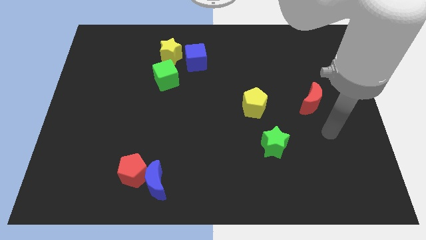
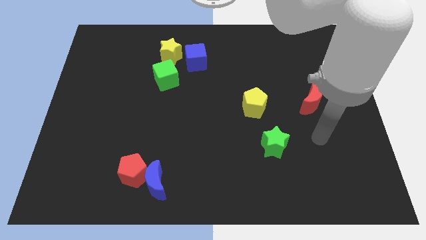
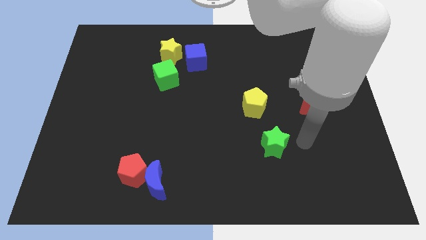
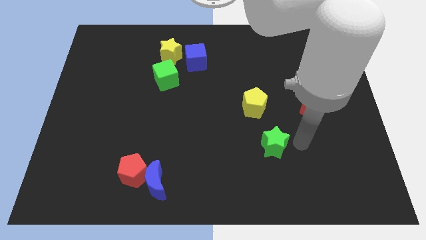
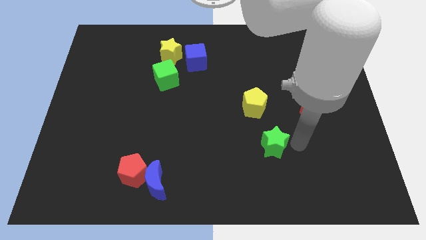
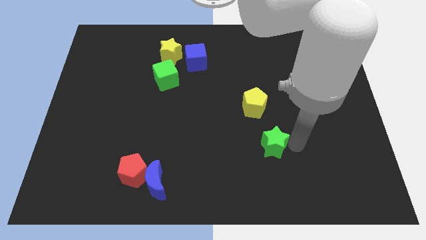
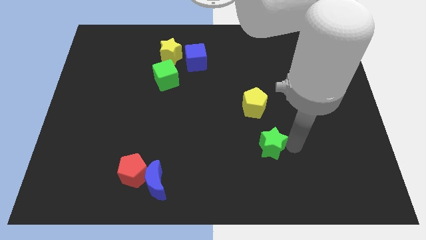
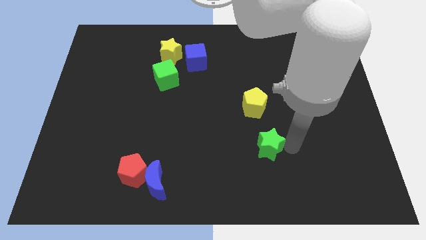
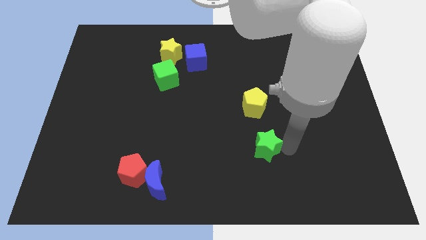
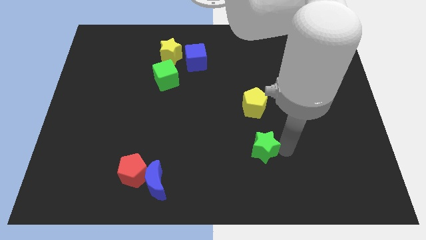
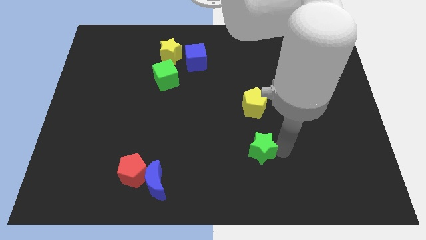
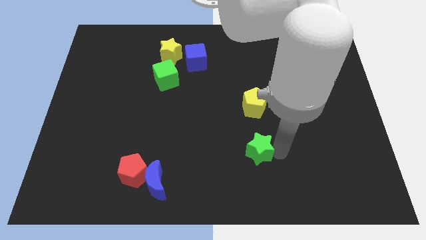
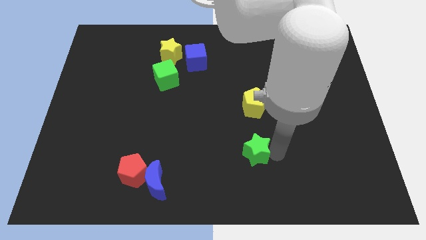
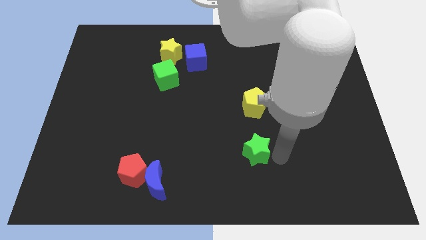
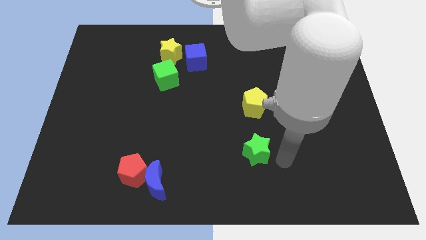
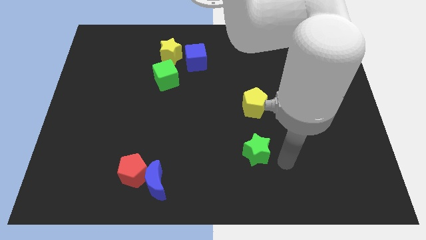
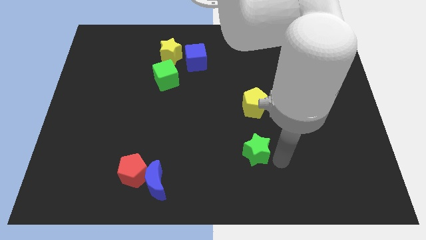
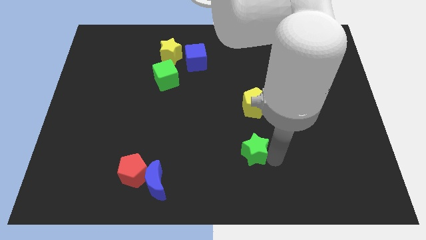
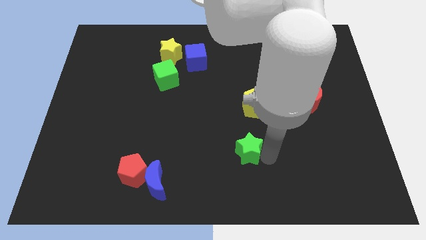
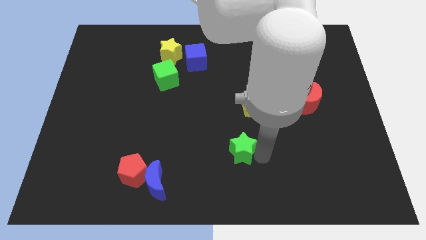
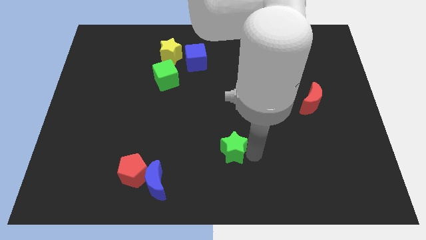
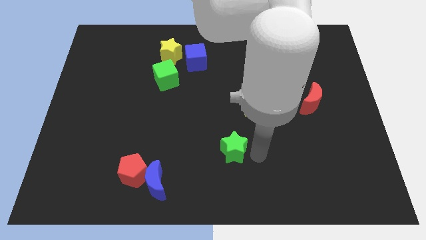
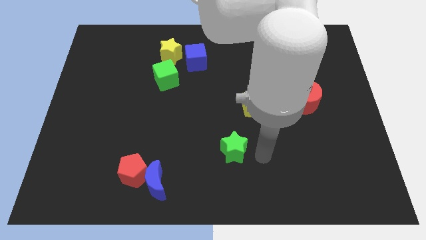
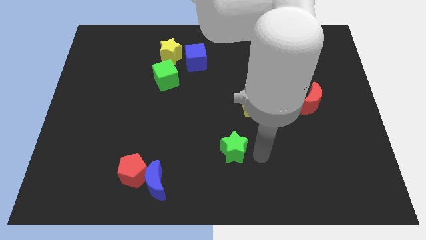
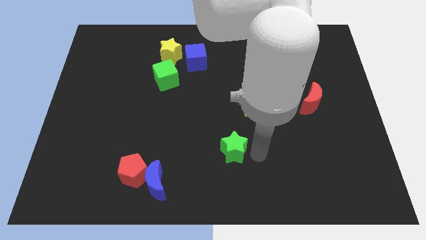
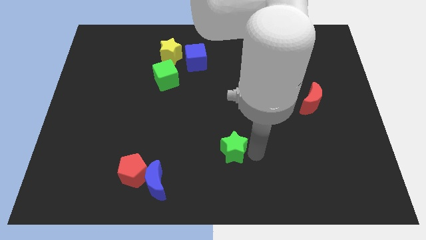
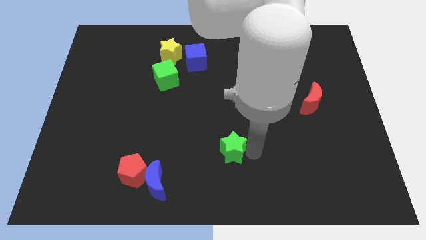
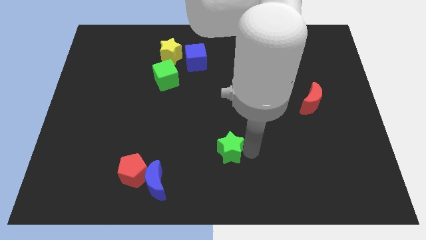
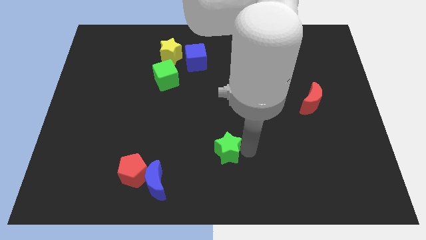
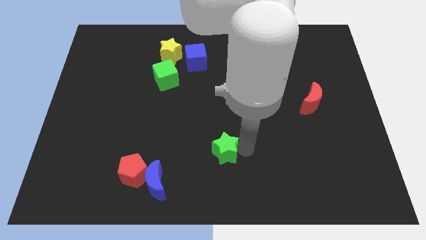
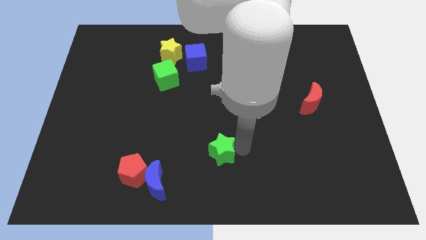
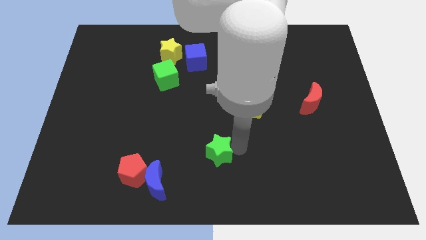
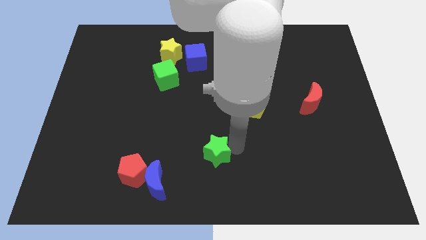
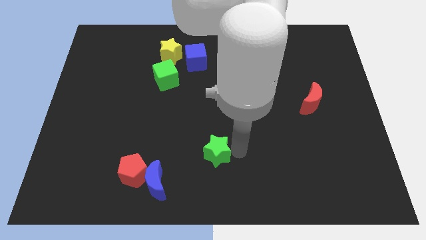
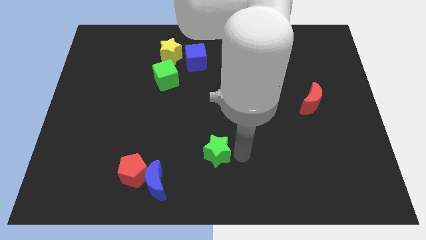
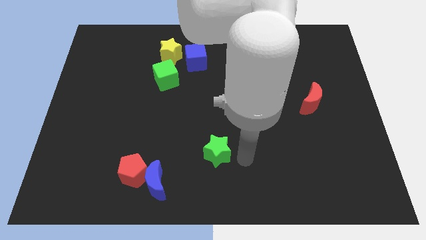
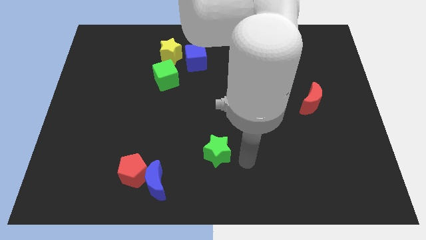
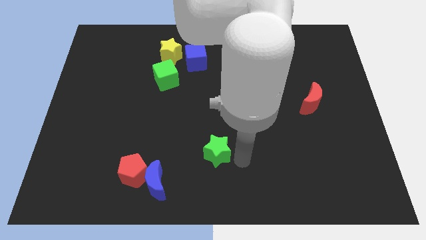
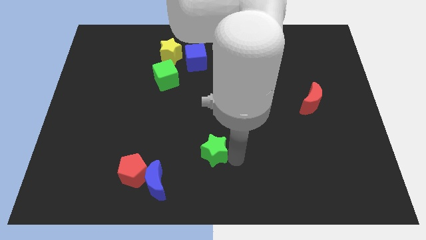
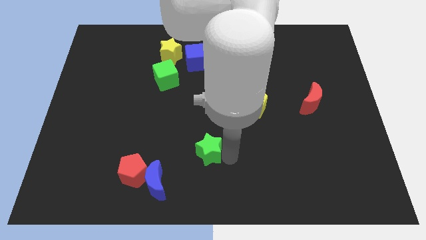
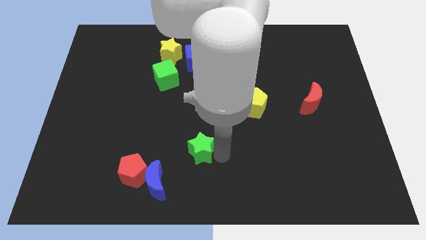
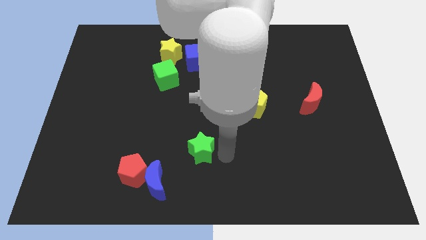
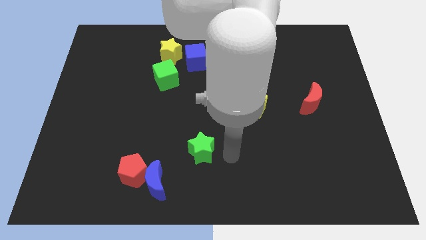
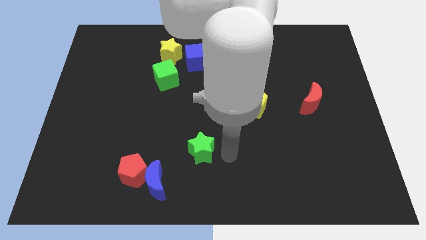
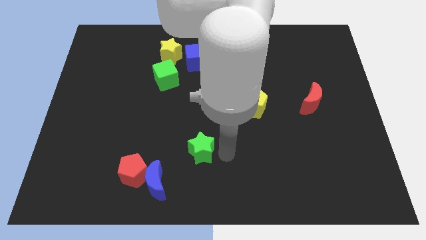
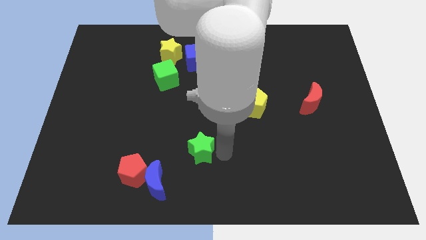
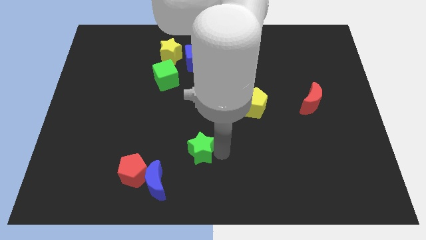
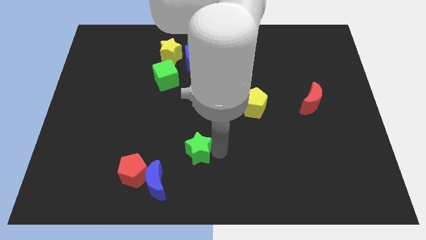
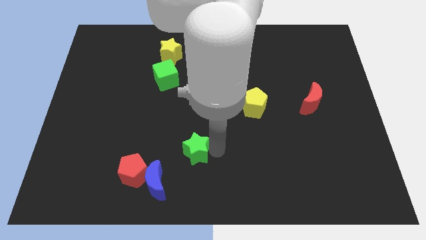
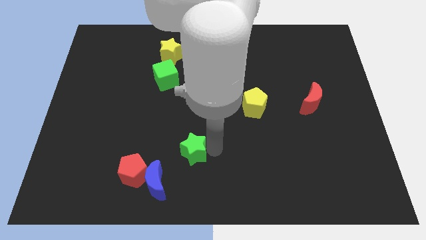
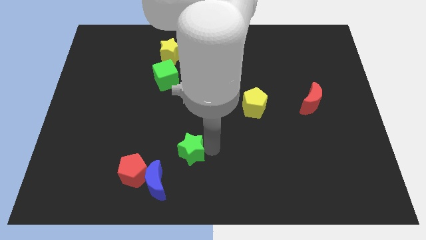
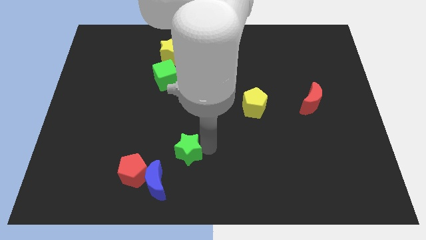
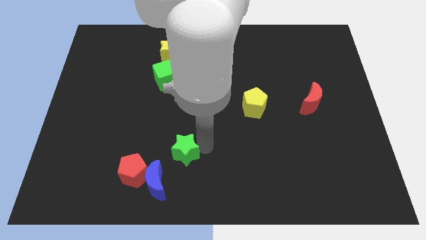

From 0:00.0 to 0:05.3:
move the green star to the top right of the red pentagon

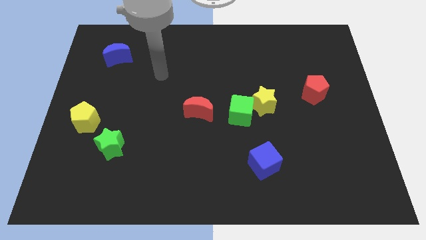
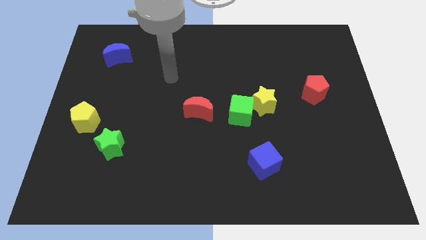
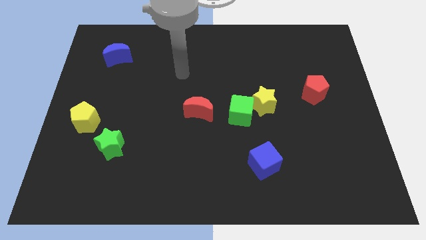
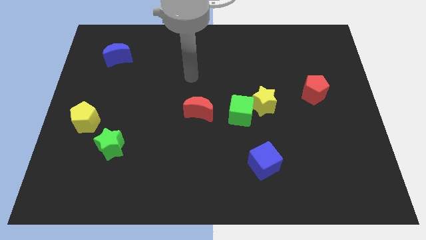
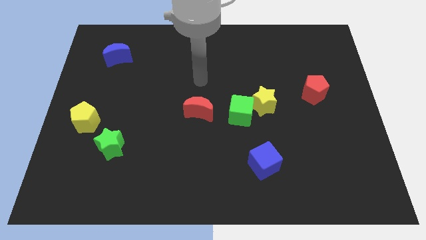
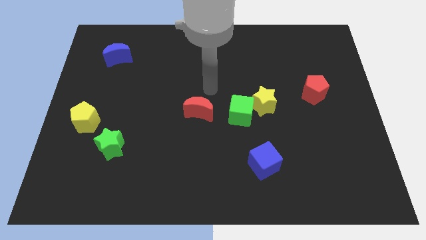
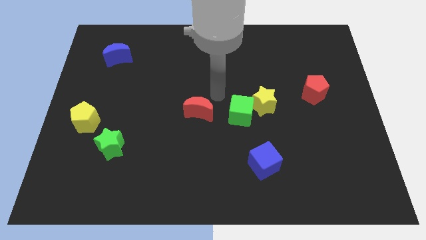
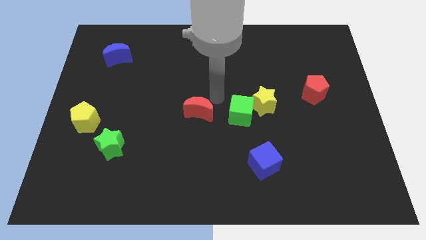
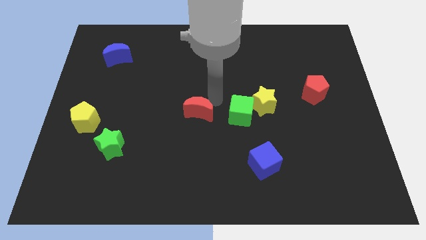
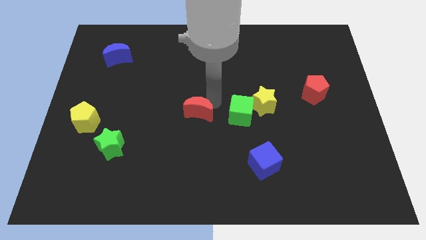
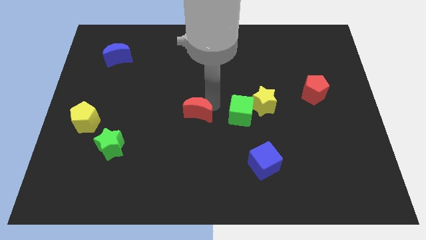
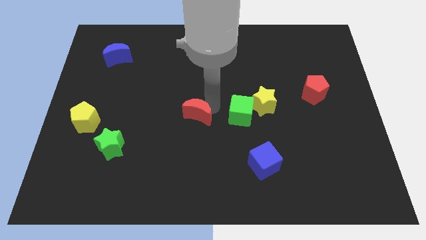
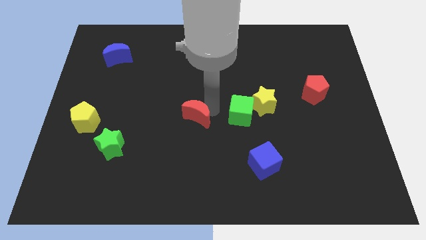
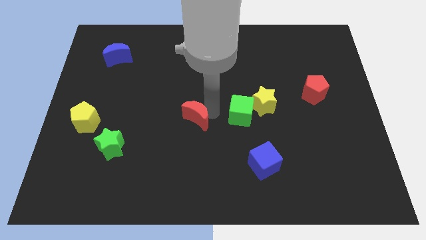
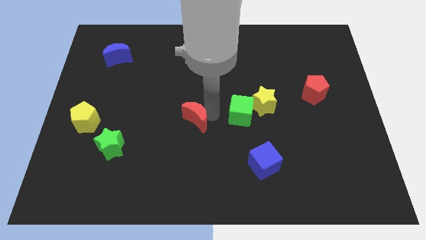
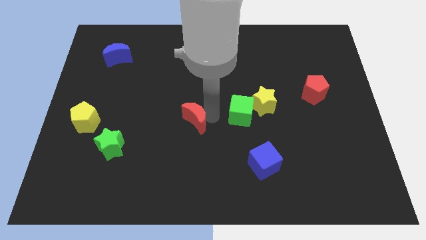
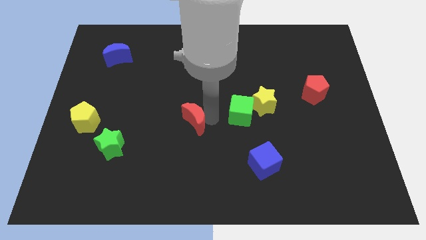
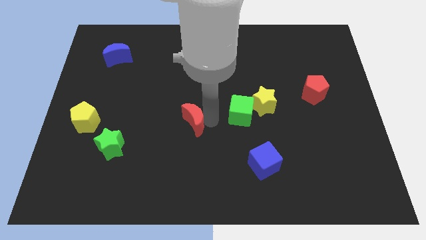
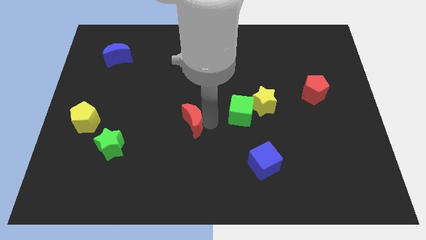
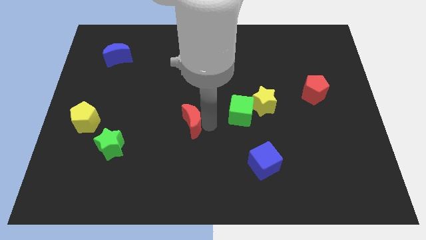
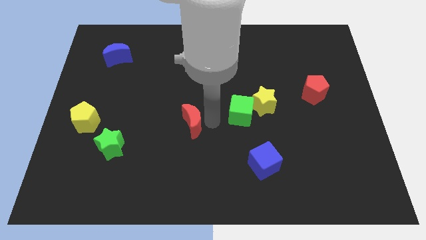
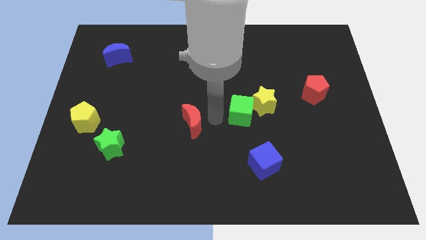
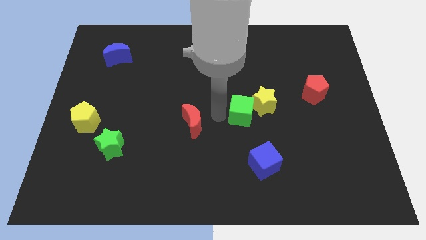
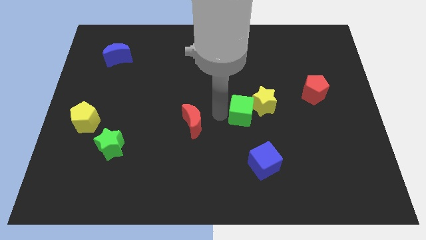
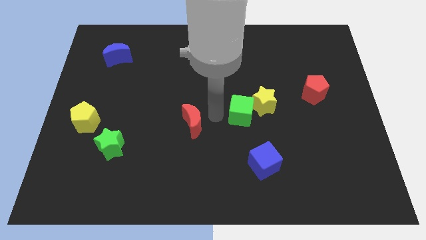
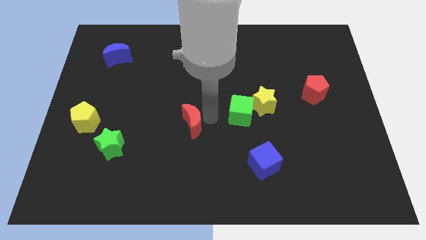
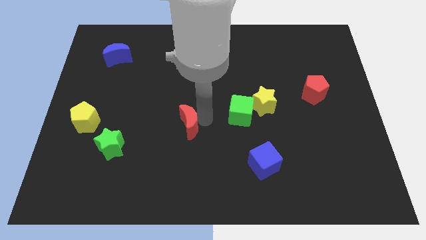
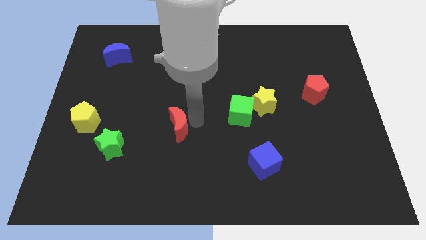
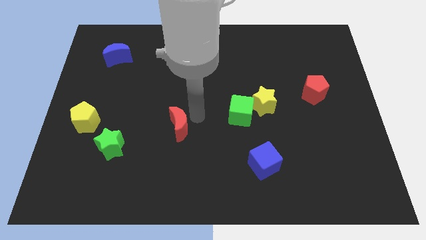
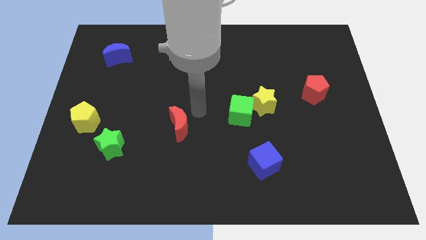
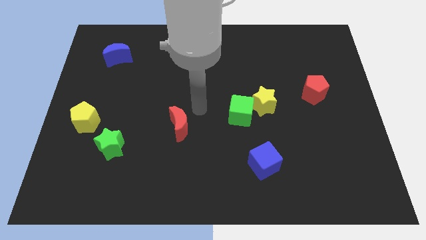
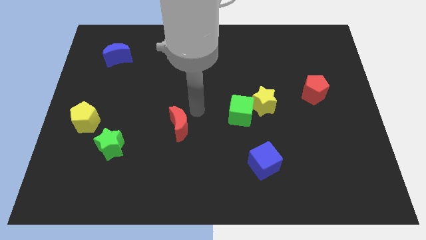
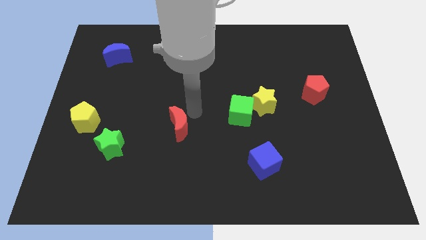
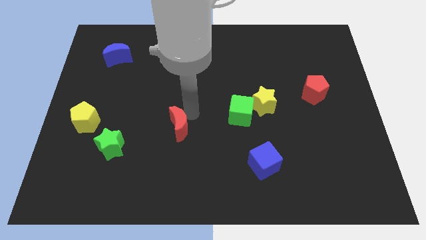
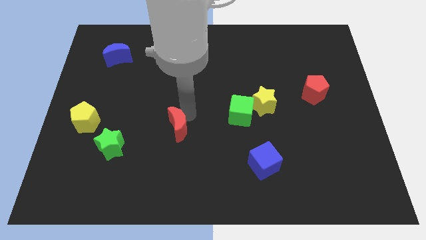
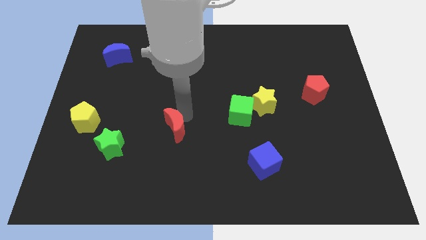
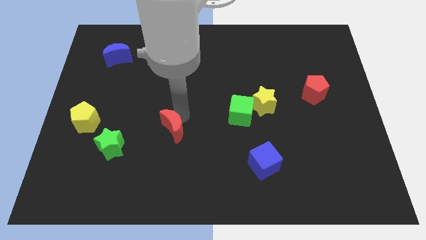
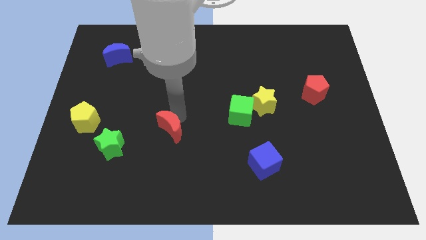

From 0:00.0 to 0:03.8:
move the red moon to the right side of the green star
